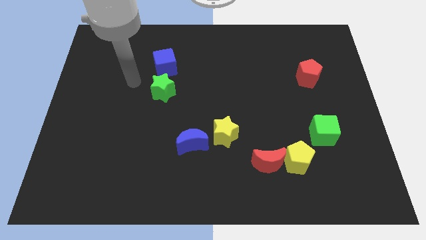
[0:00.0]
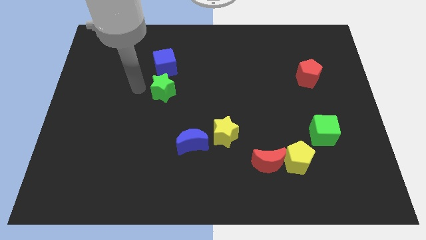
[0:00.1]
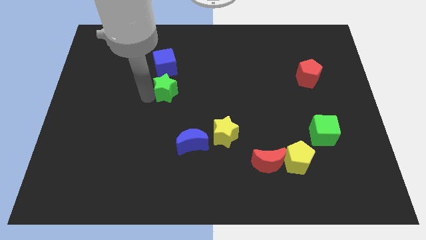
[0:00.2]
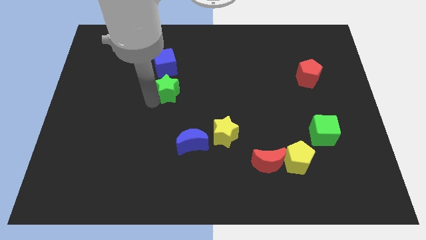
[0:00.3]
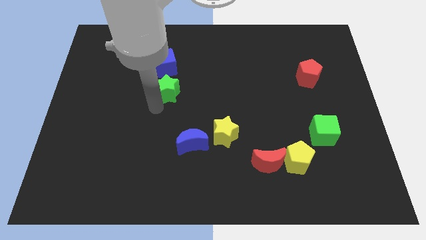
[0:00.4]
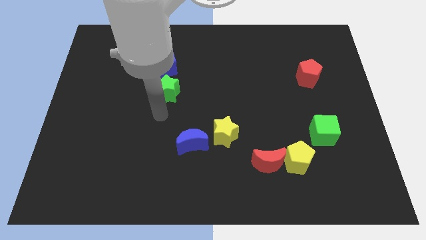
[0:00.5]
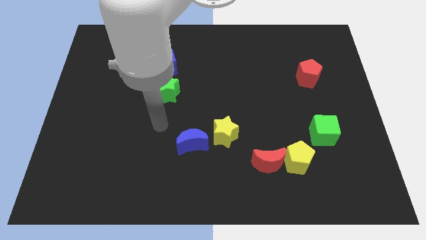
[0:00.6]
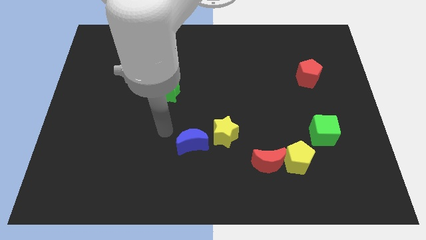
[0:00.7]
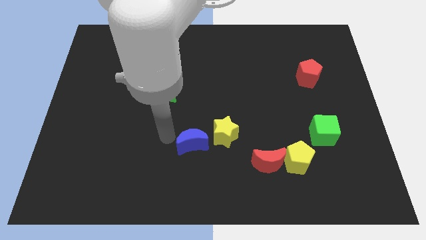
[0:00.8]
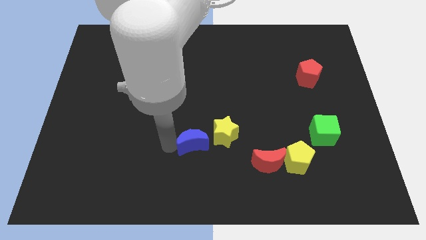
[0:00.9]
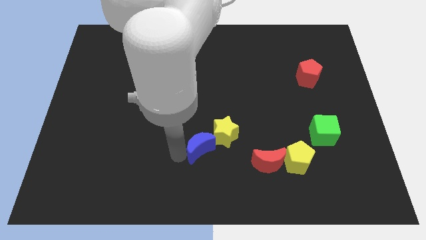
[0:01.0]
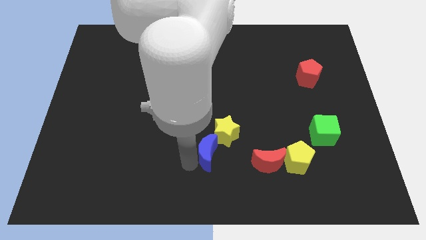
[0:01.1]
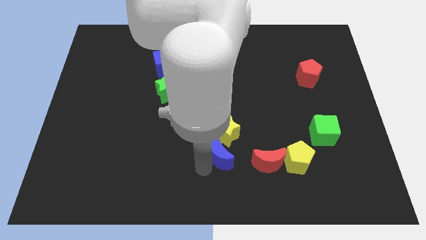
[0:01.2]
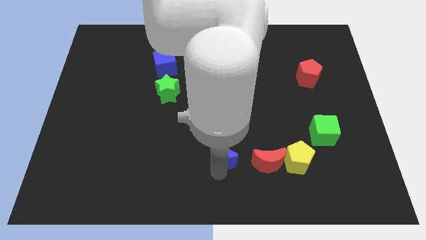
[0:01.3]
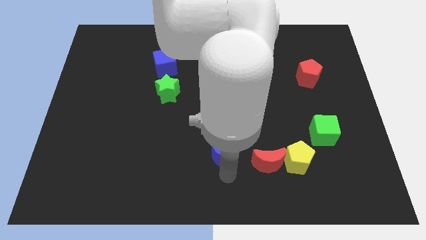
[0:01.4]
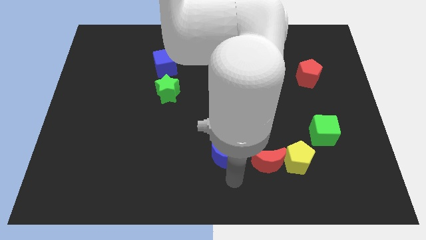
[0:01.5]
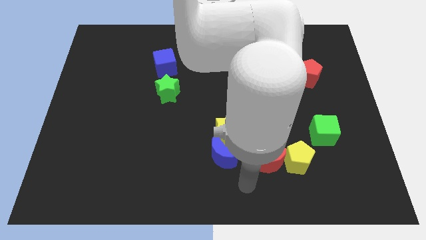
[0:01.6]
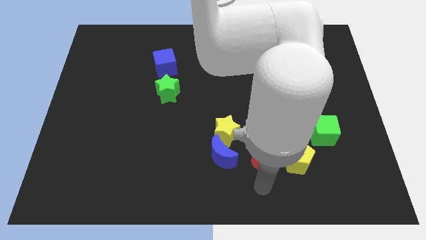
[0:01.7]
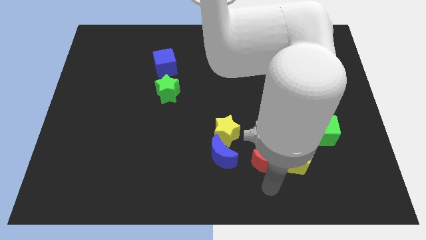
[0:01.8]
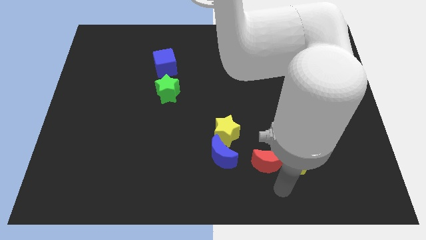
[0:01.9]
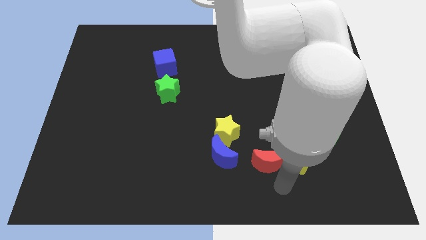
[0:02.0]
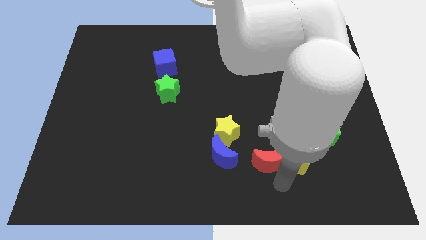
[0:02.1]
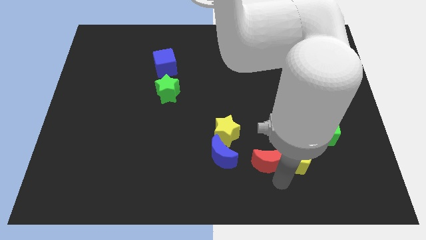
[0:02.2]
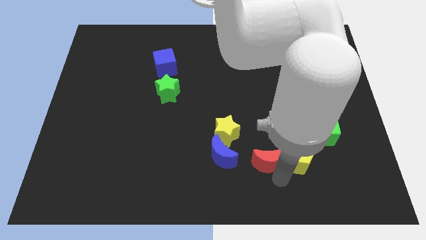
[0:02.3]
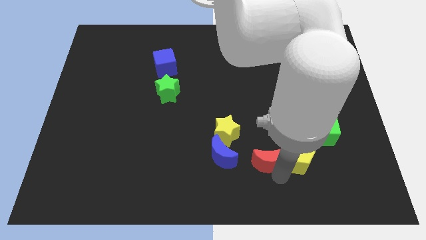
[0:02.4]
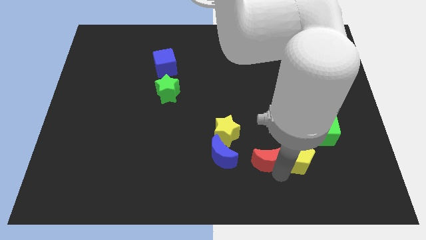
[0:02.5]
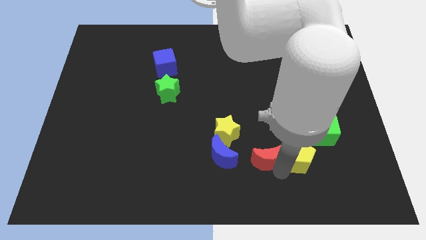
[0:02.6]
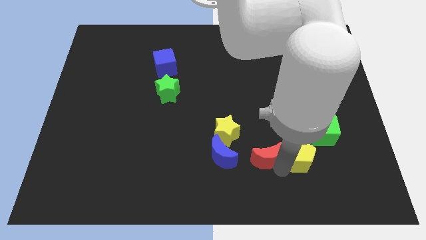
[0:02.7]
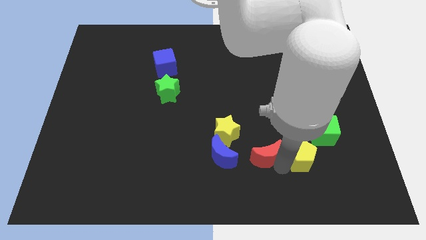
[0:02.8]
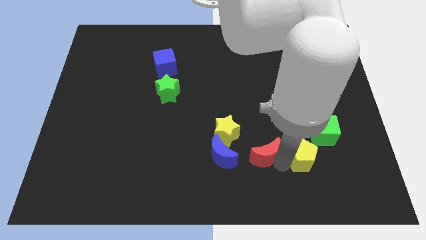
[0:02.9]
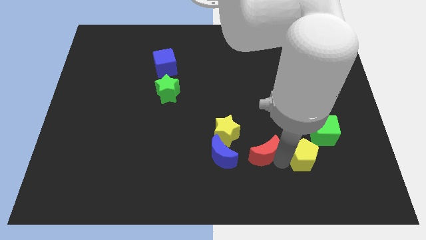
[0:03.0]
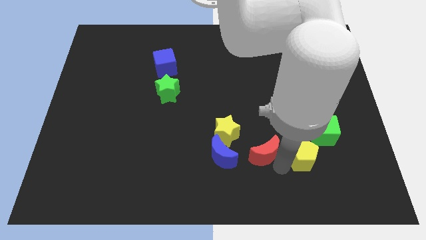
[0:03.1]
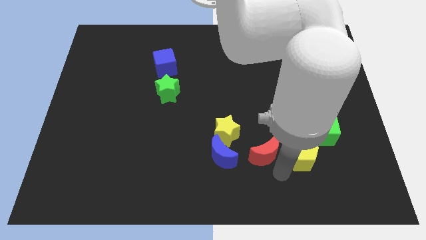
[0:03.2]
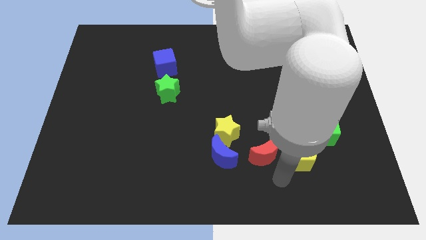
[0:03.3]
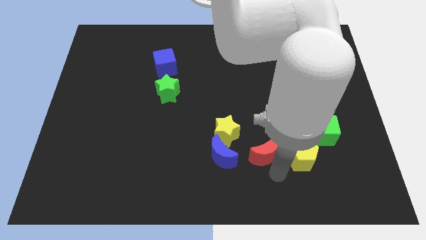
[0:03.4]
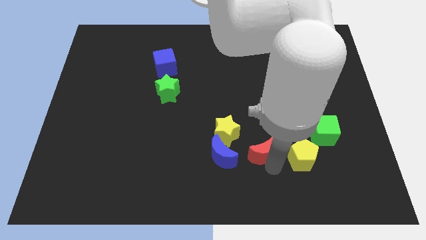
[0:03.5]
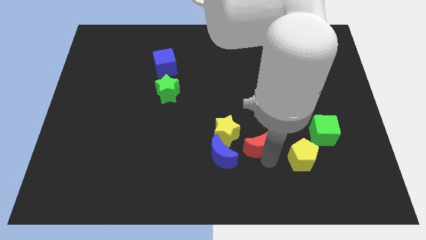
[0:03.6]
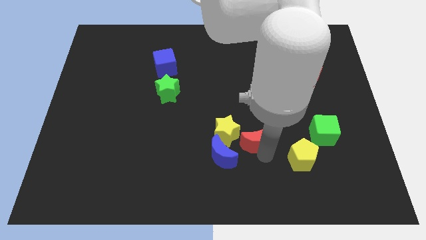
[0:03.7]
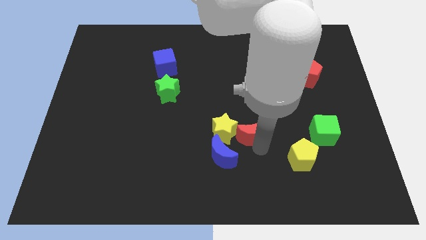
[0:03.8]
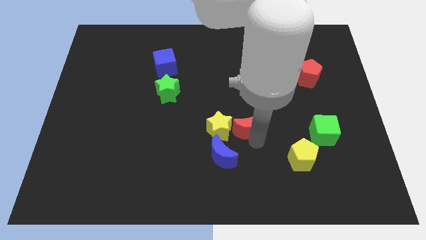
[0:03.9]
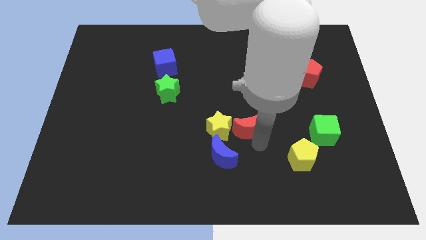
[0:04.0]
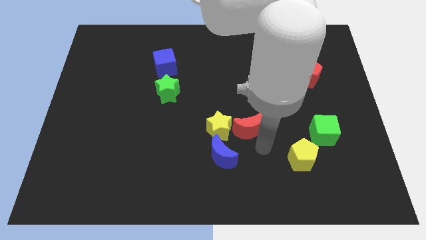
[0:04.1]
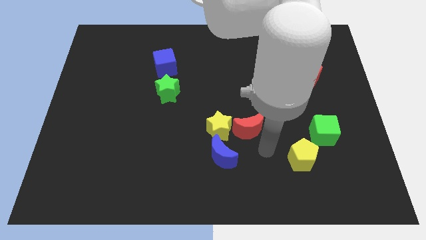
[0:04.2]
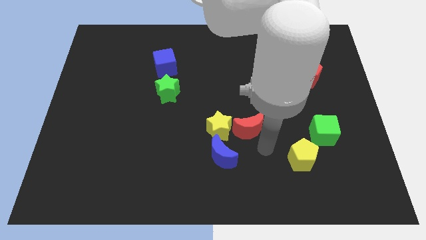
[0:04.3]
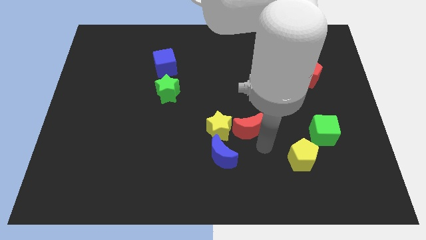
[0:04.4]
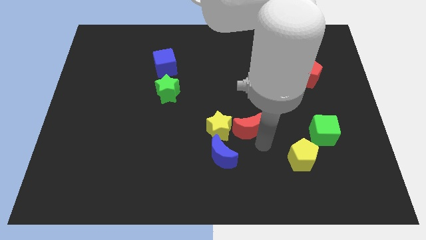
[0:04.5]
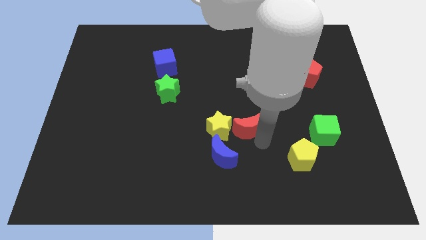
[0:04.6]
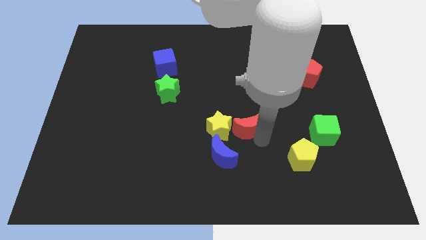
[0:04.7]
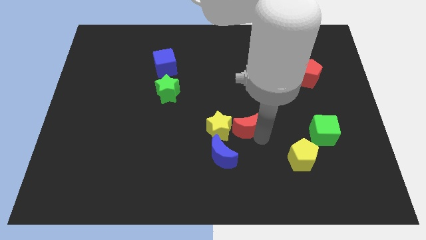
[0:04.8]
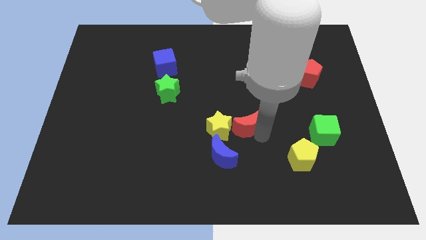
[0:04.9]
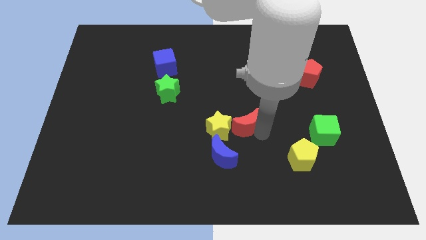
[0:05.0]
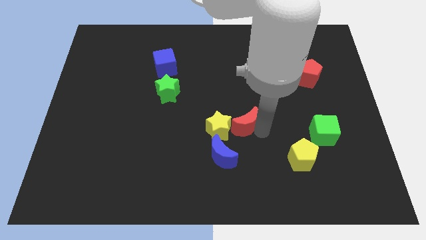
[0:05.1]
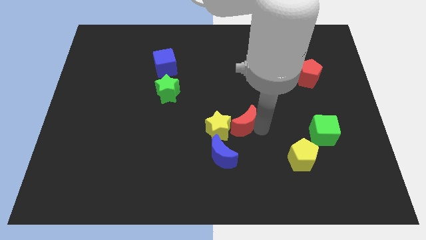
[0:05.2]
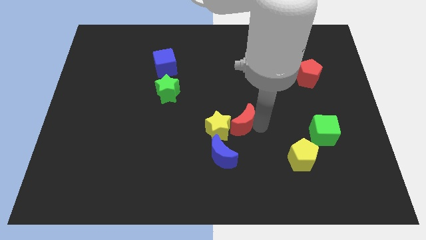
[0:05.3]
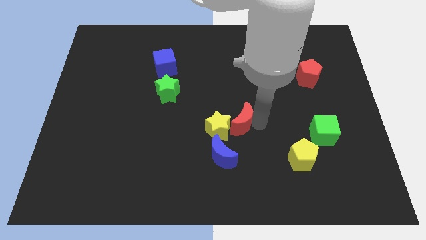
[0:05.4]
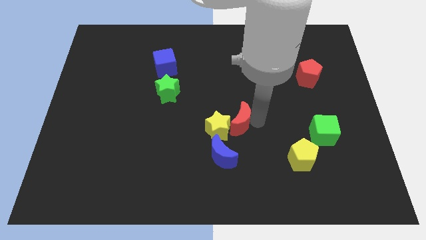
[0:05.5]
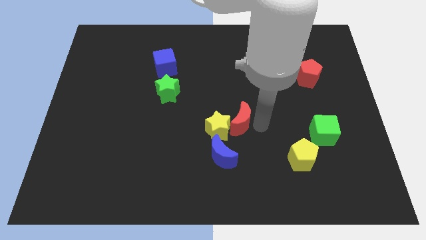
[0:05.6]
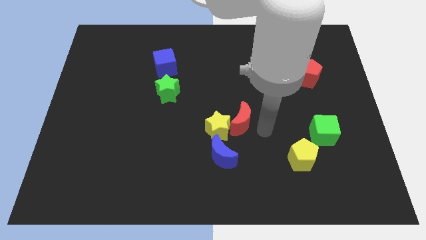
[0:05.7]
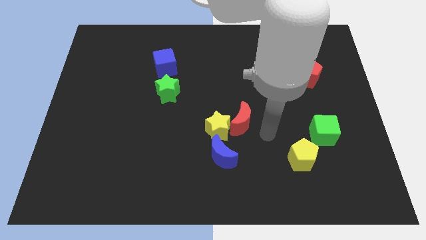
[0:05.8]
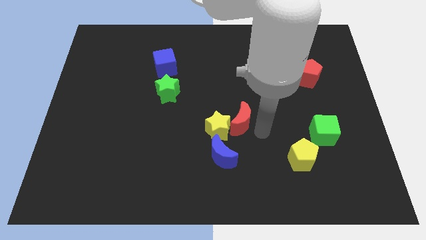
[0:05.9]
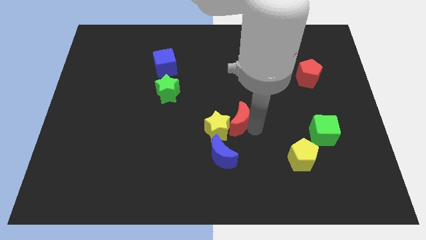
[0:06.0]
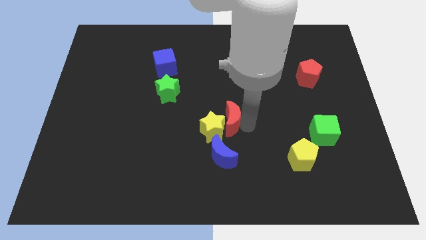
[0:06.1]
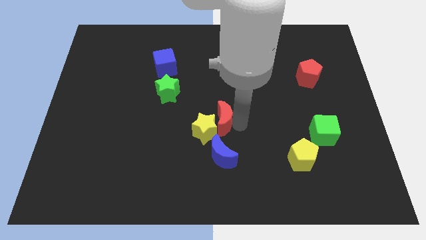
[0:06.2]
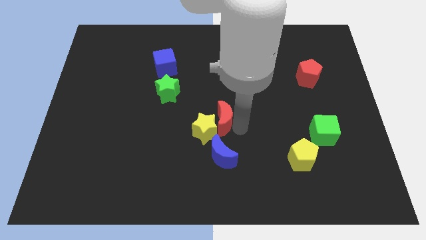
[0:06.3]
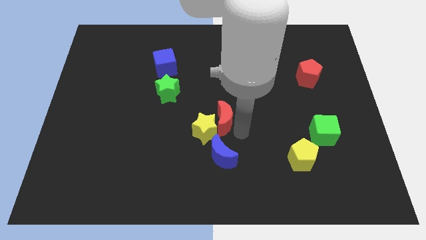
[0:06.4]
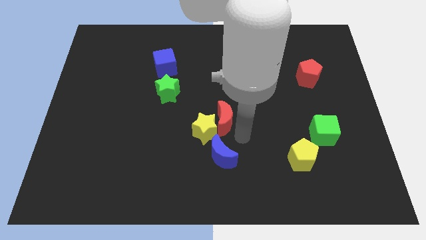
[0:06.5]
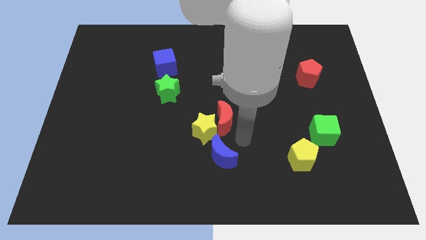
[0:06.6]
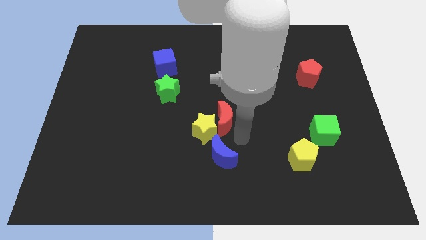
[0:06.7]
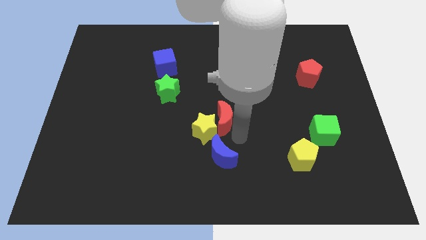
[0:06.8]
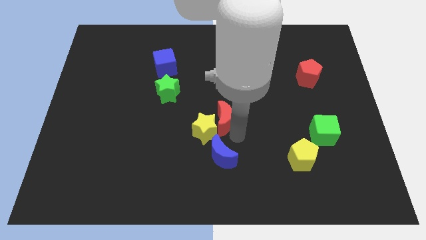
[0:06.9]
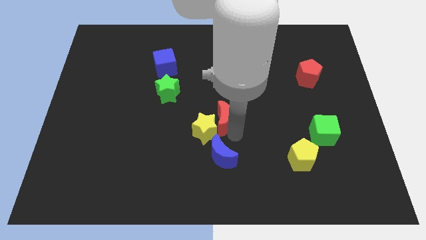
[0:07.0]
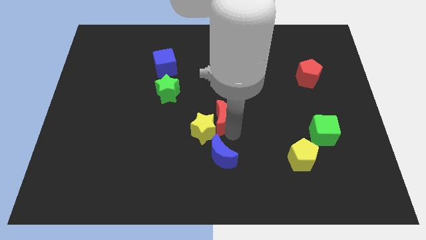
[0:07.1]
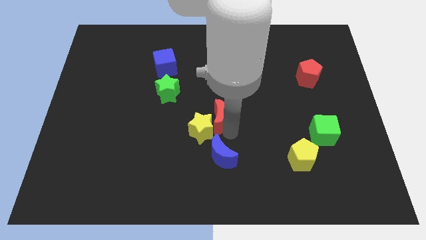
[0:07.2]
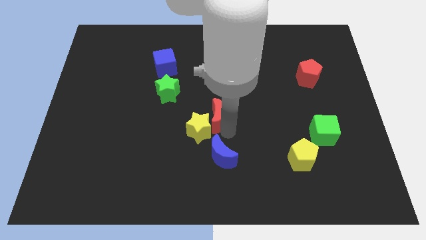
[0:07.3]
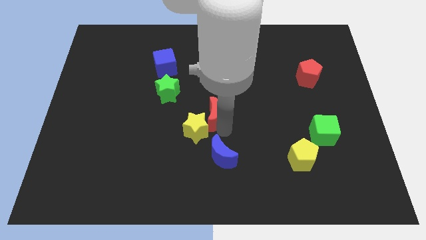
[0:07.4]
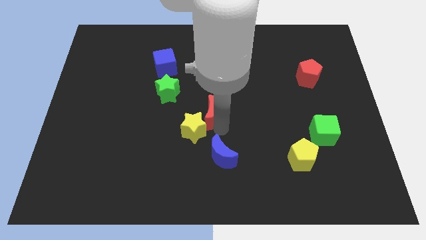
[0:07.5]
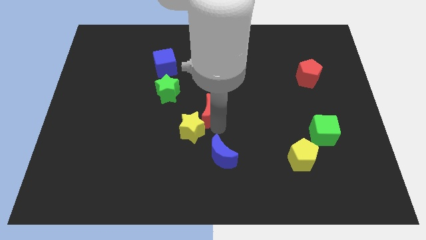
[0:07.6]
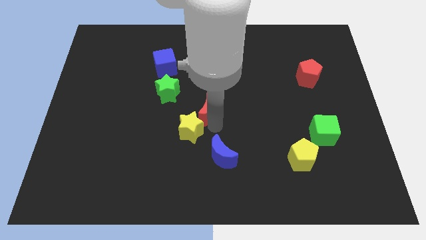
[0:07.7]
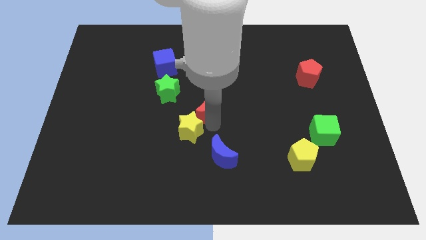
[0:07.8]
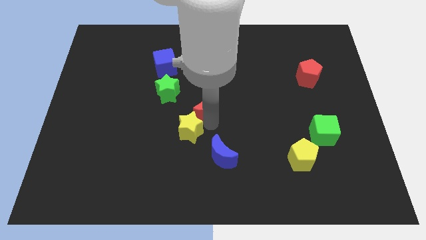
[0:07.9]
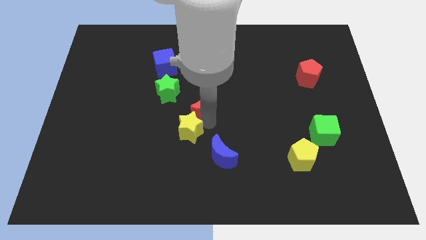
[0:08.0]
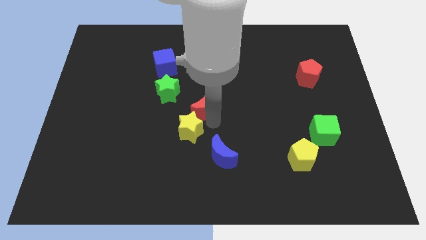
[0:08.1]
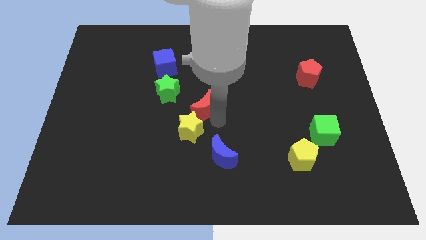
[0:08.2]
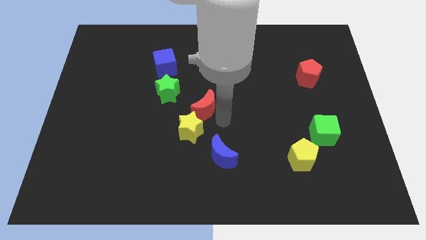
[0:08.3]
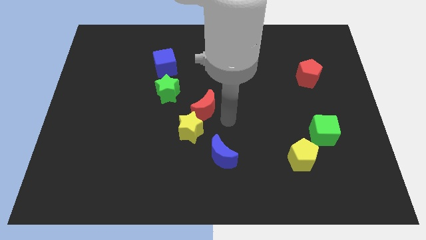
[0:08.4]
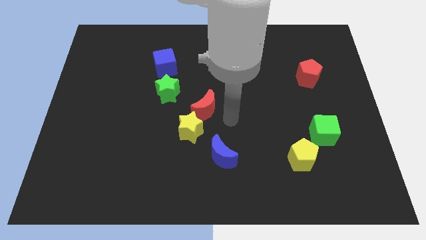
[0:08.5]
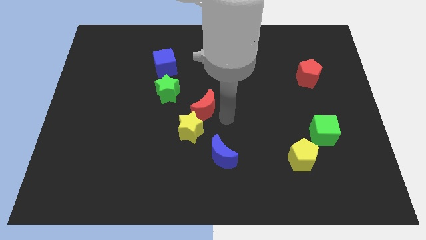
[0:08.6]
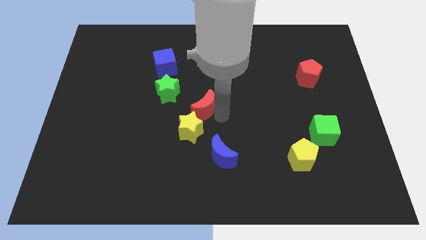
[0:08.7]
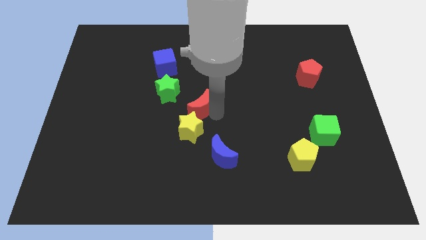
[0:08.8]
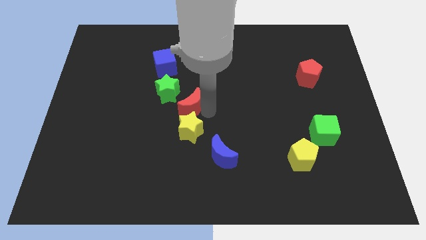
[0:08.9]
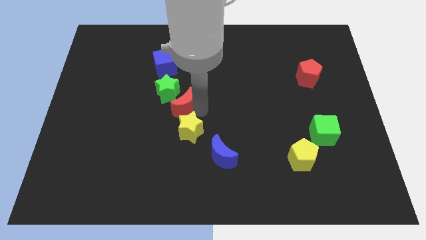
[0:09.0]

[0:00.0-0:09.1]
put the red moon close to the green star
